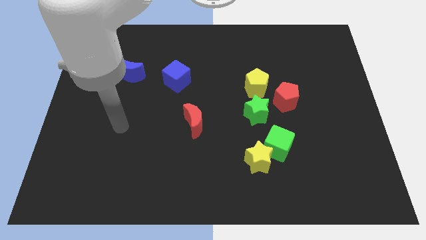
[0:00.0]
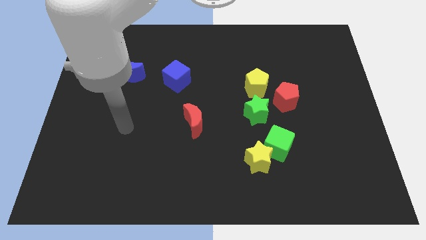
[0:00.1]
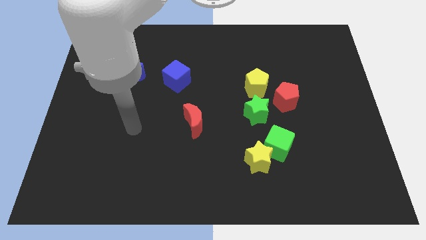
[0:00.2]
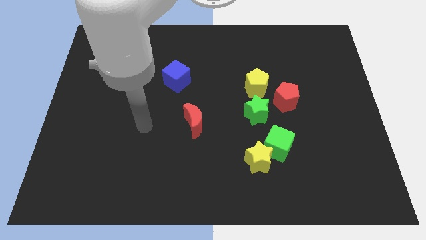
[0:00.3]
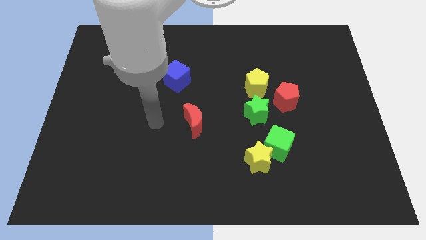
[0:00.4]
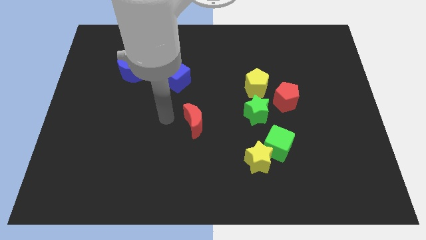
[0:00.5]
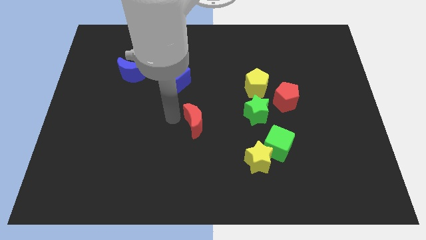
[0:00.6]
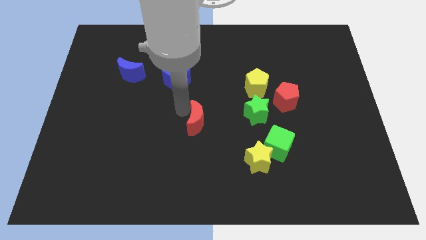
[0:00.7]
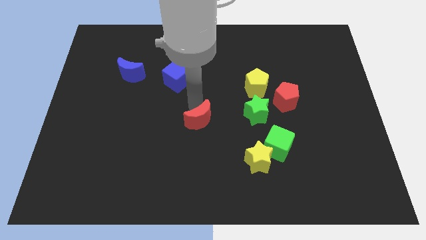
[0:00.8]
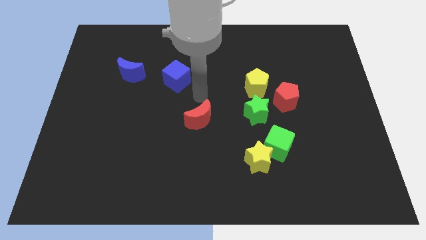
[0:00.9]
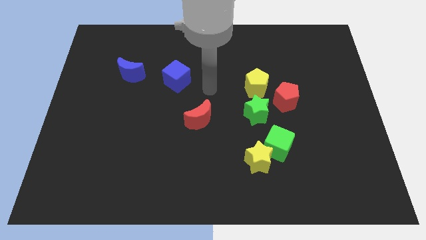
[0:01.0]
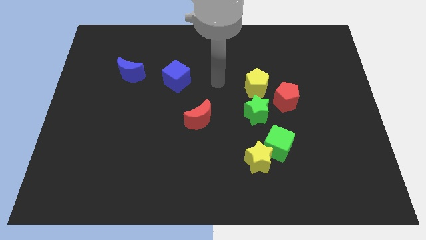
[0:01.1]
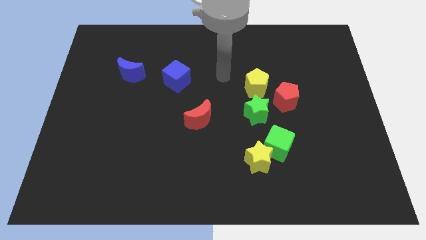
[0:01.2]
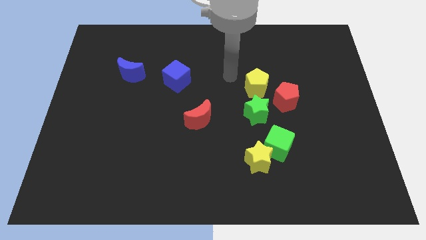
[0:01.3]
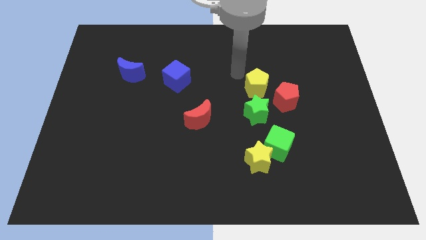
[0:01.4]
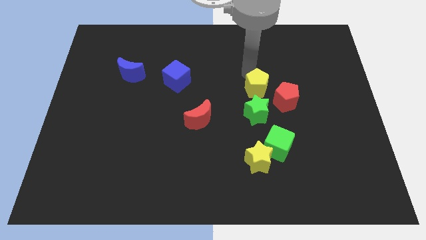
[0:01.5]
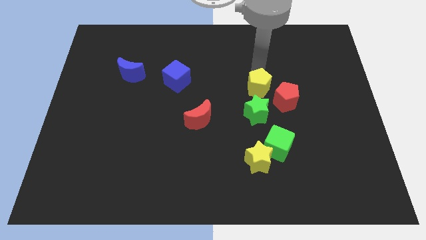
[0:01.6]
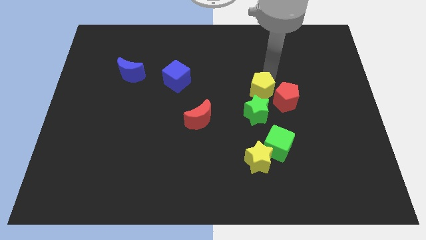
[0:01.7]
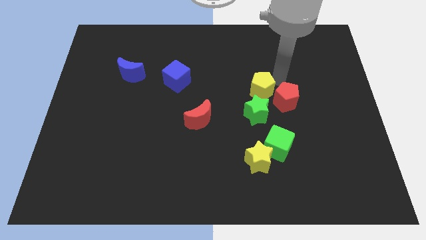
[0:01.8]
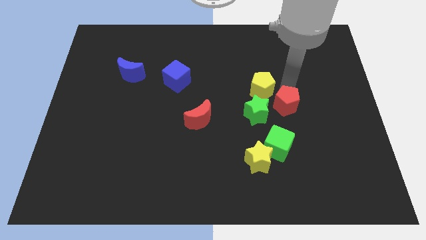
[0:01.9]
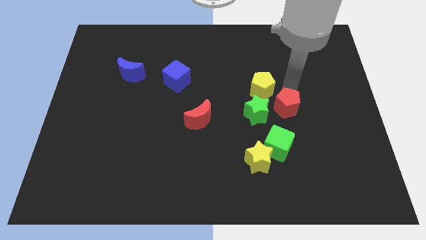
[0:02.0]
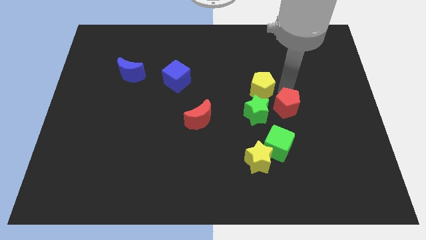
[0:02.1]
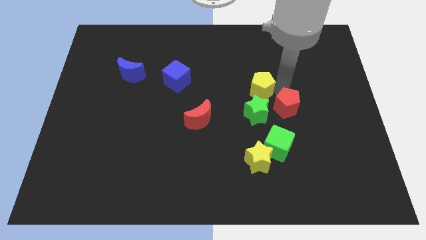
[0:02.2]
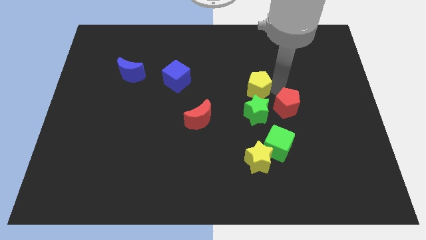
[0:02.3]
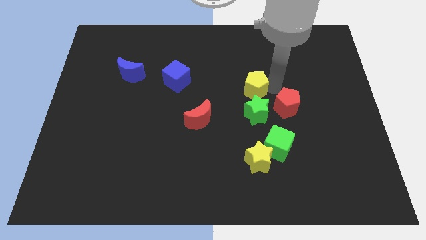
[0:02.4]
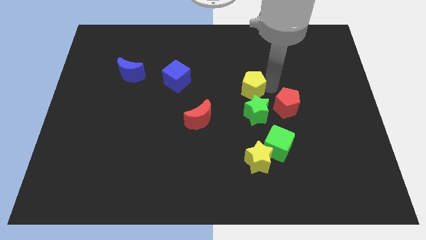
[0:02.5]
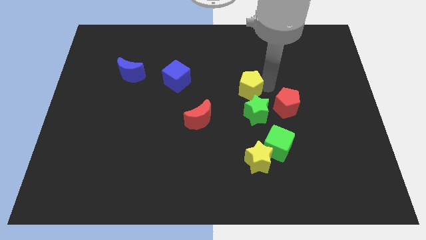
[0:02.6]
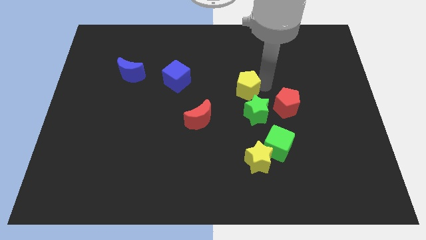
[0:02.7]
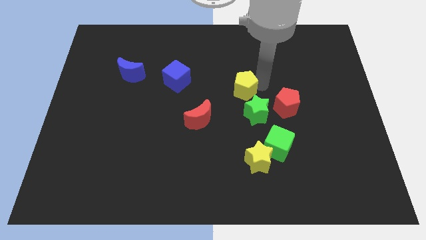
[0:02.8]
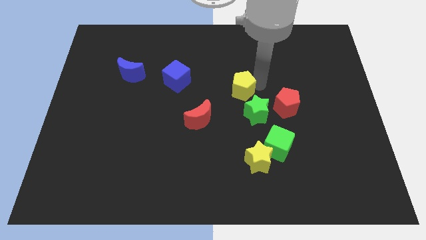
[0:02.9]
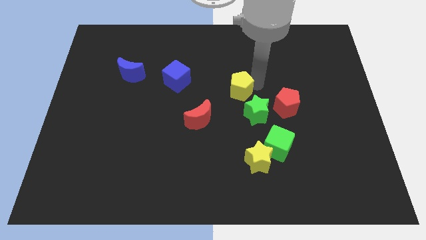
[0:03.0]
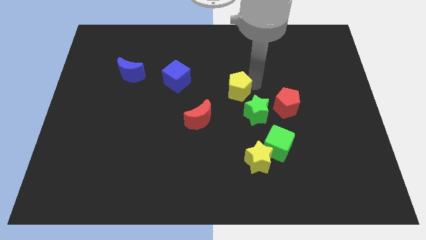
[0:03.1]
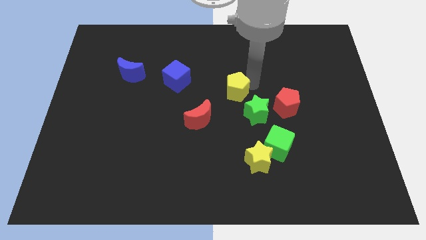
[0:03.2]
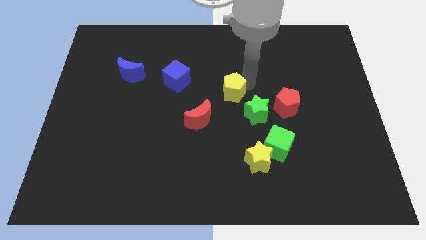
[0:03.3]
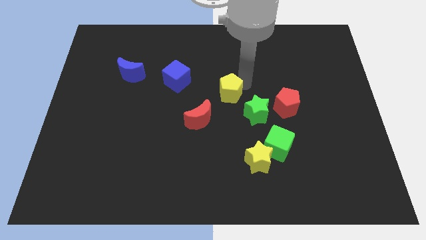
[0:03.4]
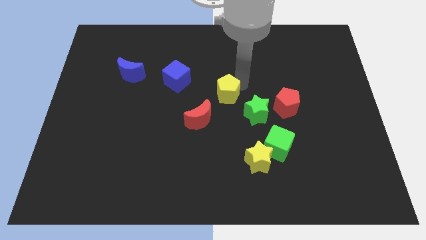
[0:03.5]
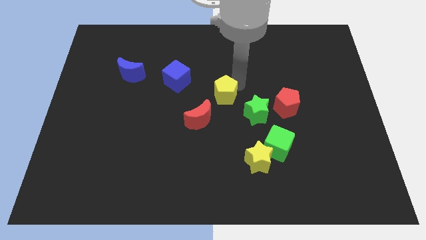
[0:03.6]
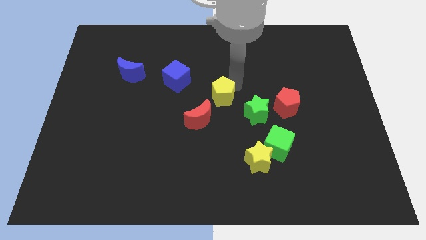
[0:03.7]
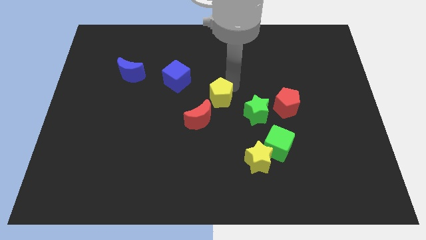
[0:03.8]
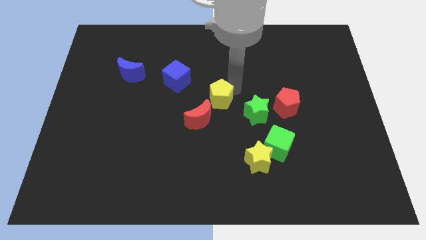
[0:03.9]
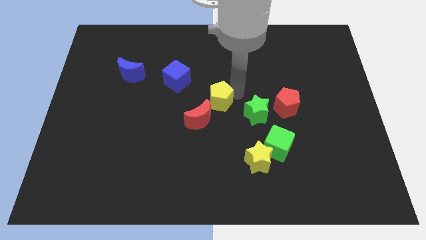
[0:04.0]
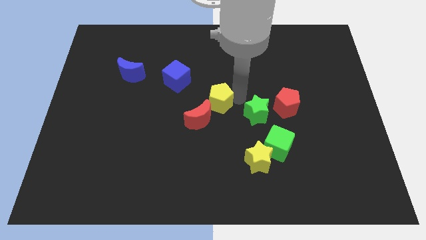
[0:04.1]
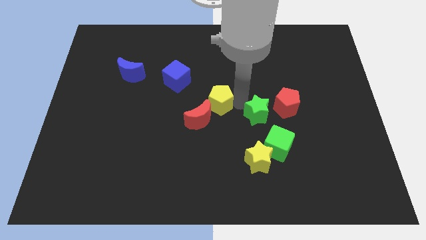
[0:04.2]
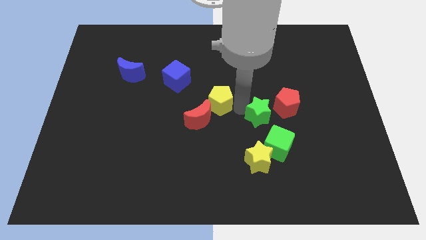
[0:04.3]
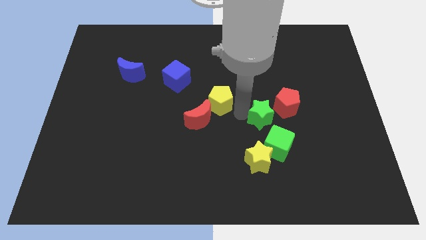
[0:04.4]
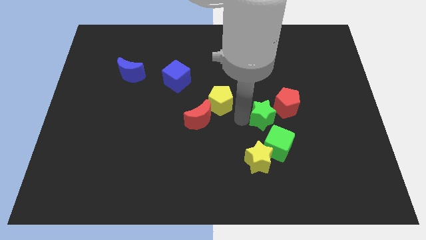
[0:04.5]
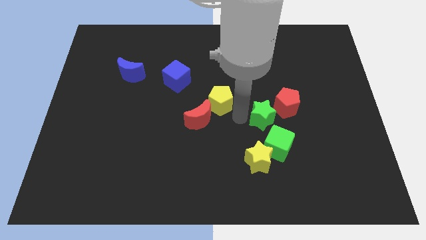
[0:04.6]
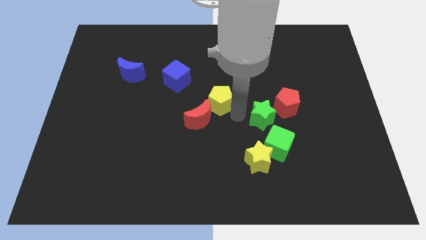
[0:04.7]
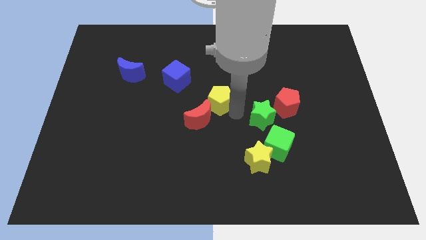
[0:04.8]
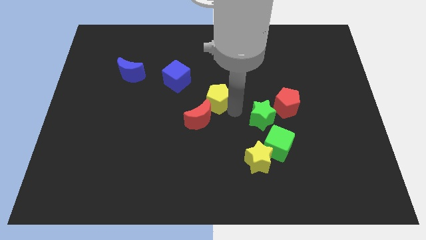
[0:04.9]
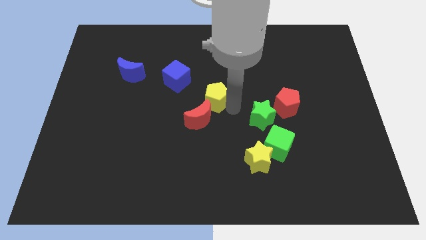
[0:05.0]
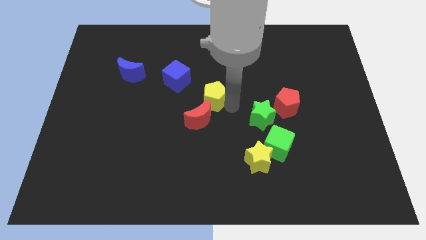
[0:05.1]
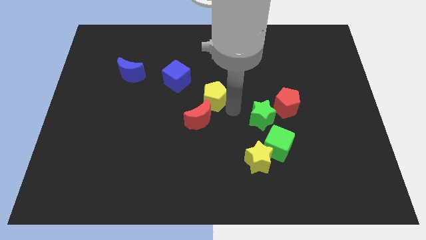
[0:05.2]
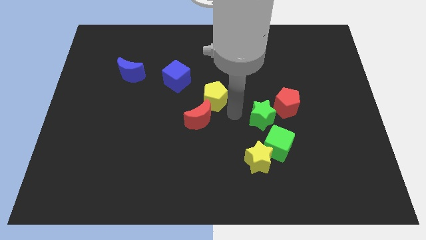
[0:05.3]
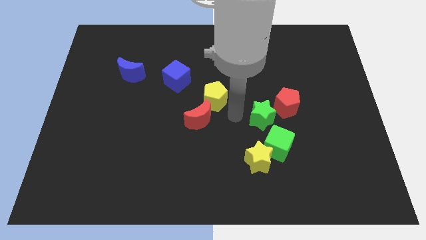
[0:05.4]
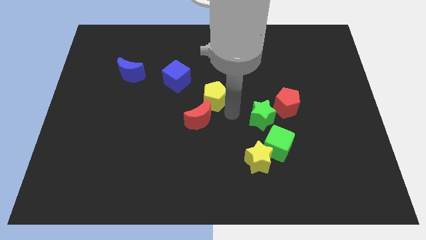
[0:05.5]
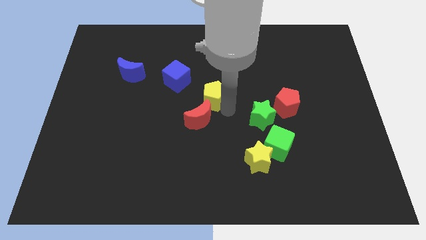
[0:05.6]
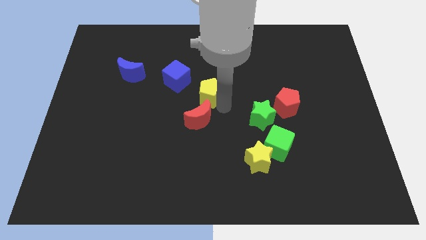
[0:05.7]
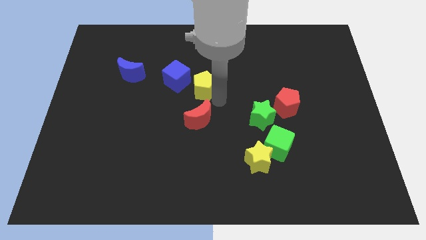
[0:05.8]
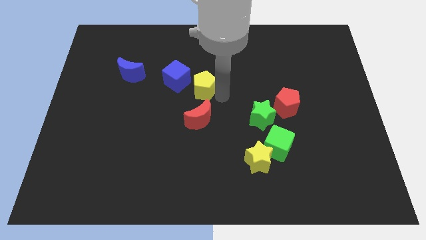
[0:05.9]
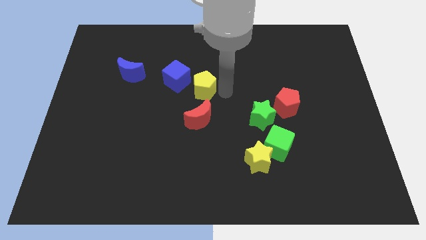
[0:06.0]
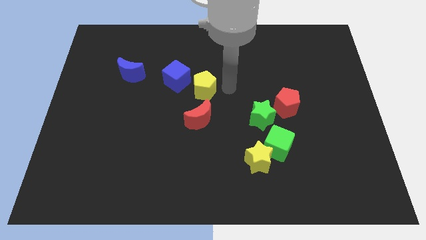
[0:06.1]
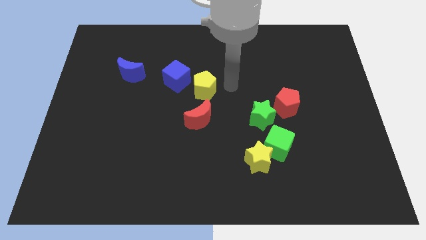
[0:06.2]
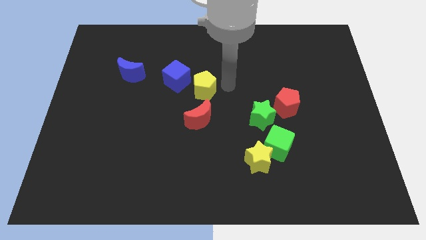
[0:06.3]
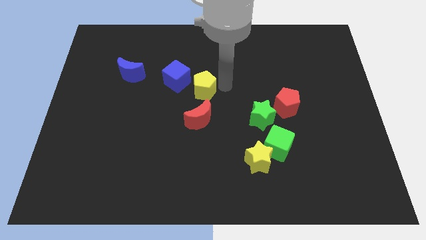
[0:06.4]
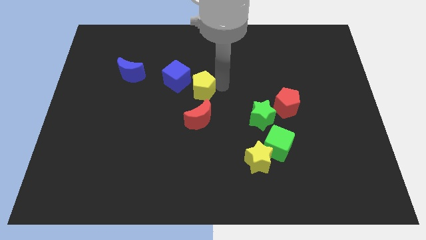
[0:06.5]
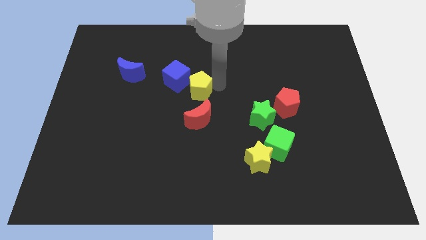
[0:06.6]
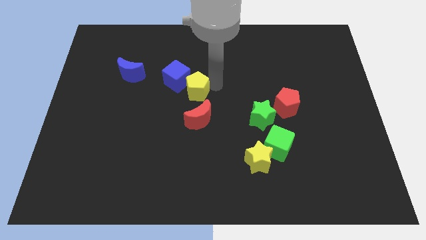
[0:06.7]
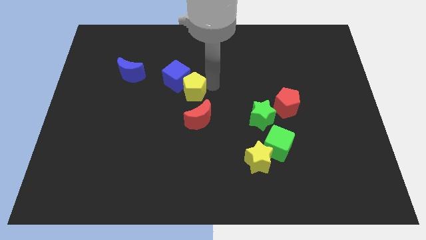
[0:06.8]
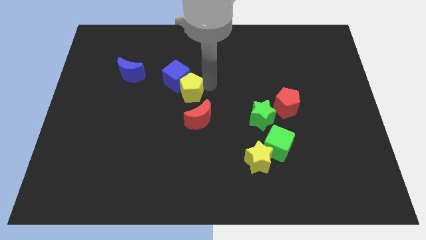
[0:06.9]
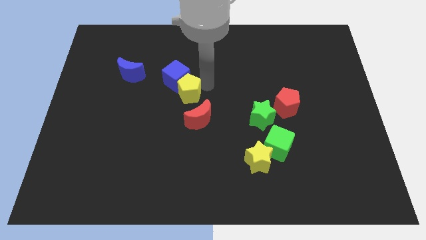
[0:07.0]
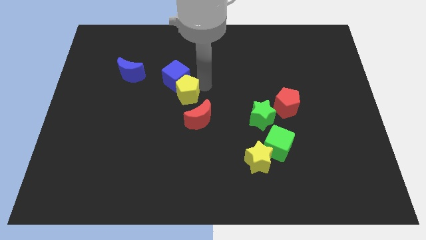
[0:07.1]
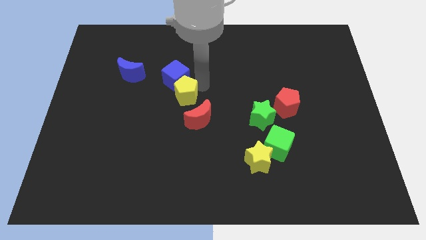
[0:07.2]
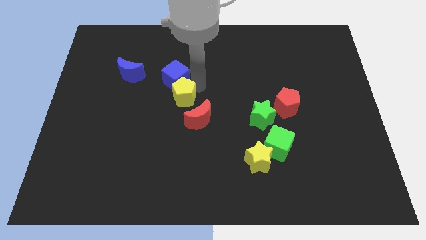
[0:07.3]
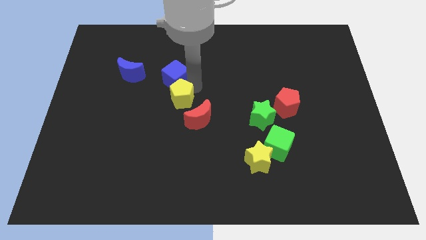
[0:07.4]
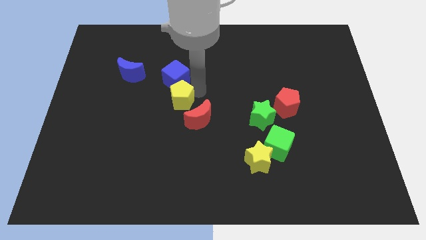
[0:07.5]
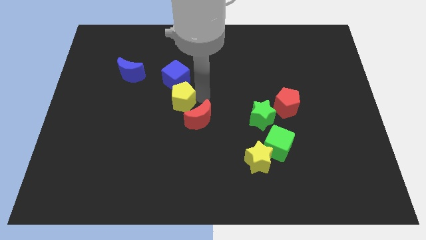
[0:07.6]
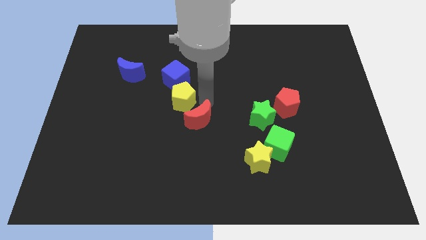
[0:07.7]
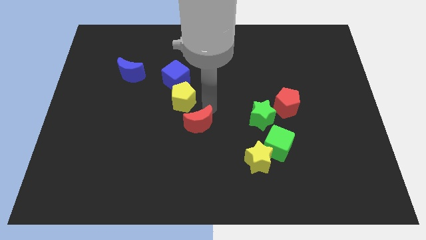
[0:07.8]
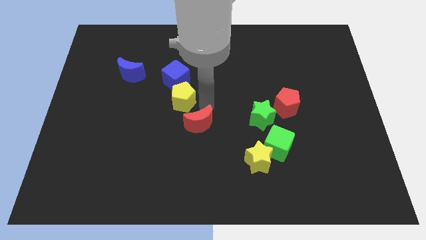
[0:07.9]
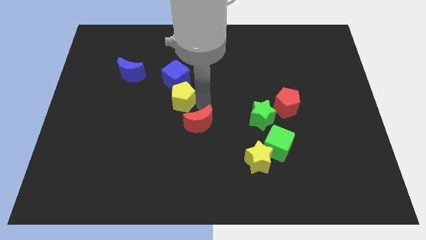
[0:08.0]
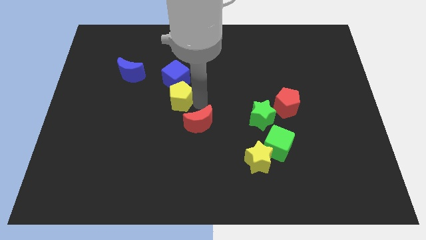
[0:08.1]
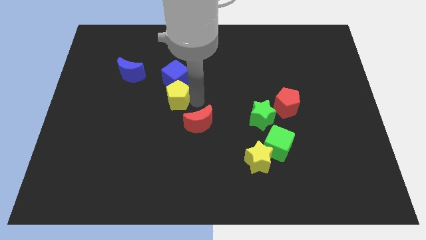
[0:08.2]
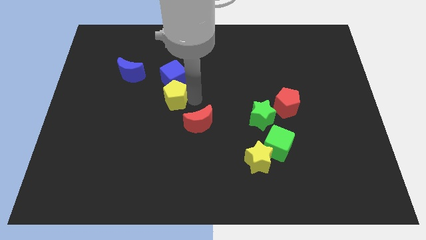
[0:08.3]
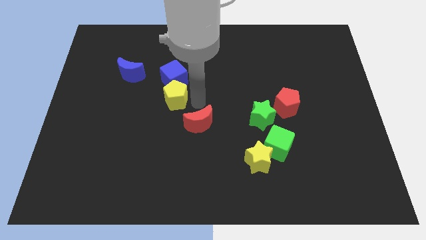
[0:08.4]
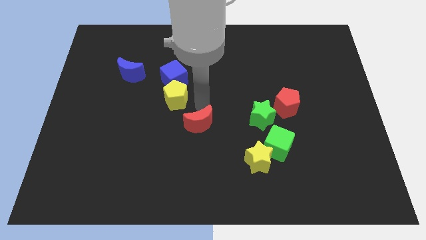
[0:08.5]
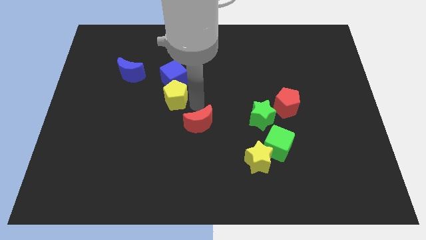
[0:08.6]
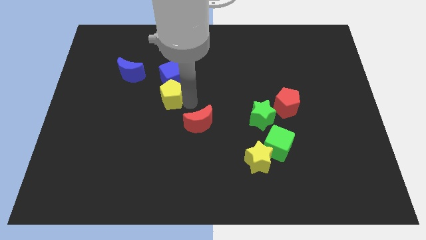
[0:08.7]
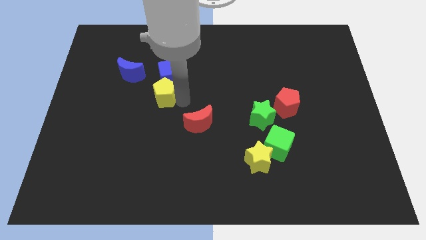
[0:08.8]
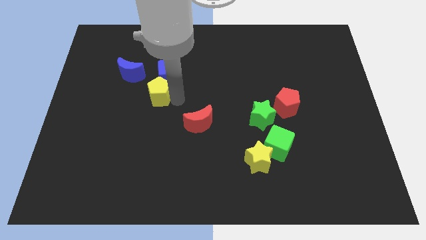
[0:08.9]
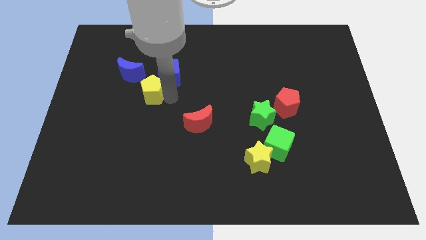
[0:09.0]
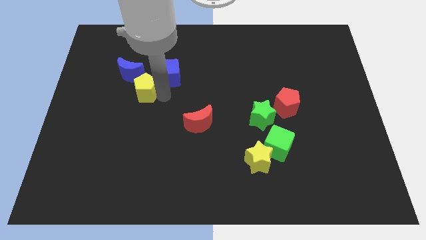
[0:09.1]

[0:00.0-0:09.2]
push the yellow pentagon to the left side of the blue cube
